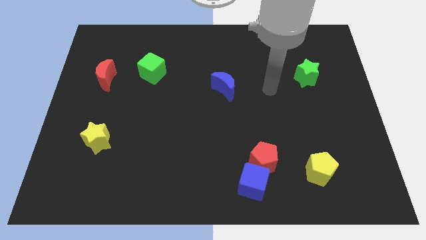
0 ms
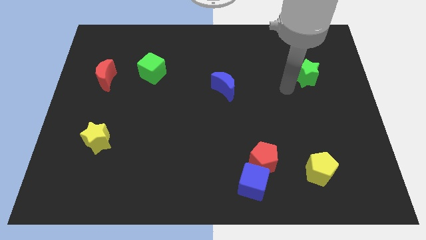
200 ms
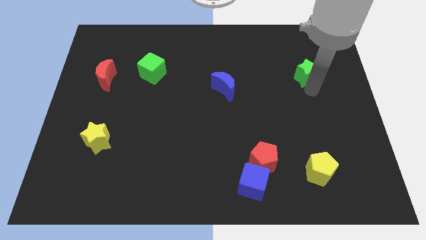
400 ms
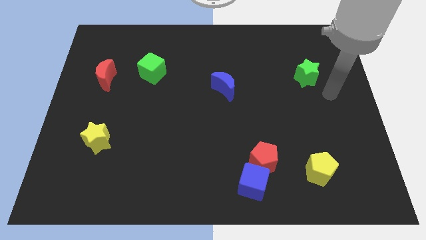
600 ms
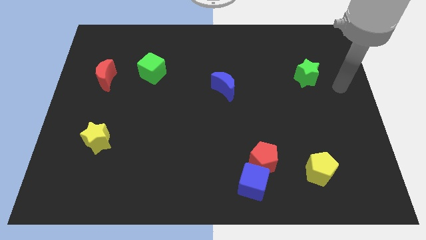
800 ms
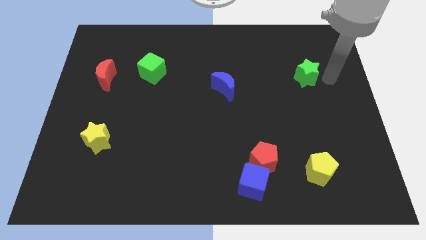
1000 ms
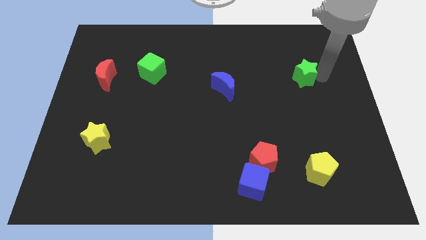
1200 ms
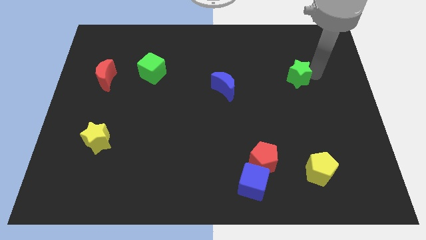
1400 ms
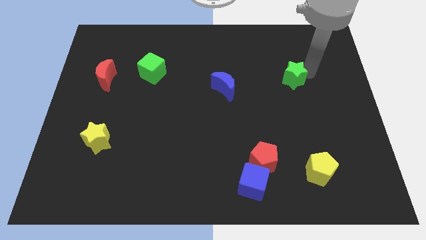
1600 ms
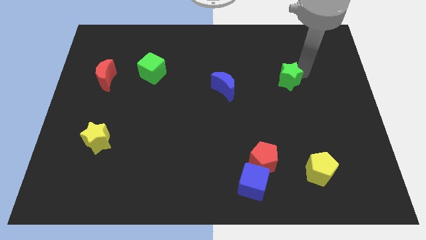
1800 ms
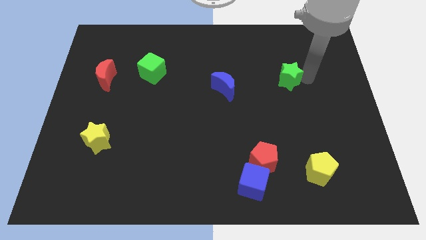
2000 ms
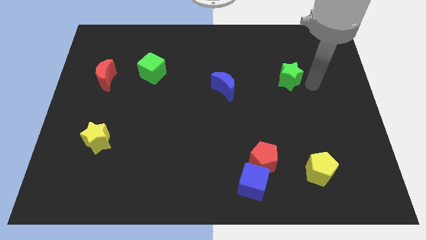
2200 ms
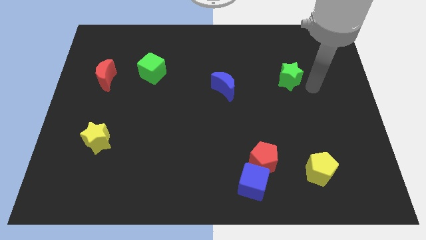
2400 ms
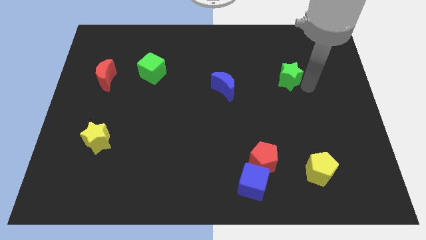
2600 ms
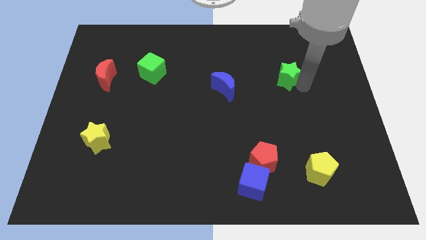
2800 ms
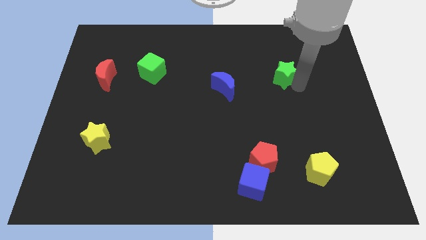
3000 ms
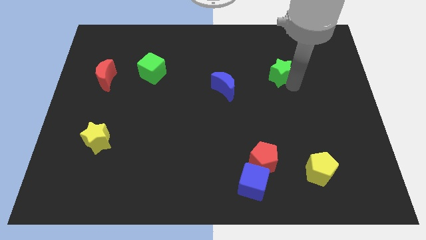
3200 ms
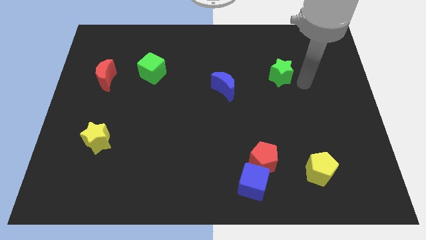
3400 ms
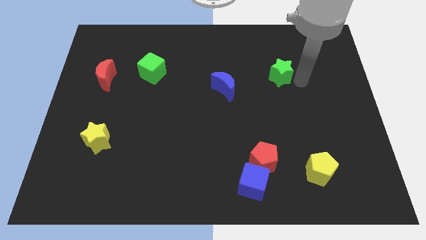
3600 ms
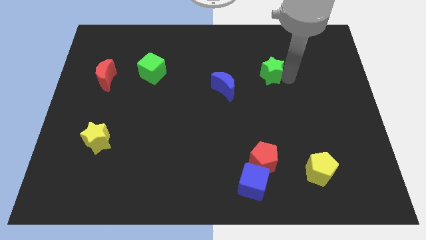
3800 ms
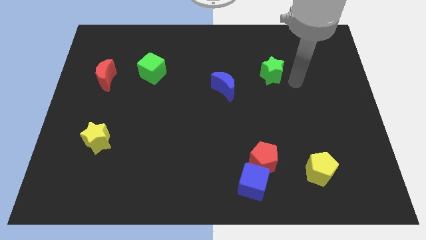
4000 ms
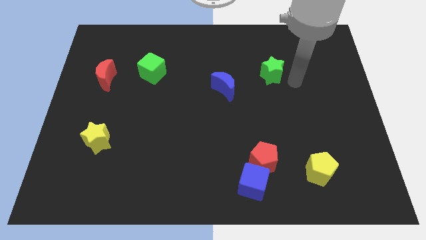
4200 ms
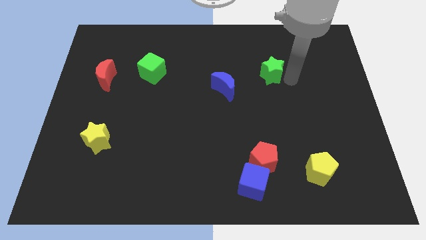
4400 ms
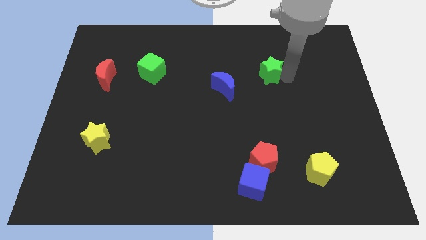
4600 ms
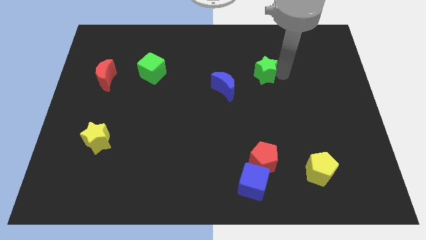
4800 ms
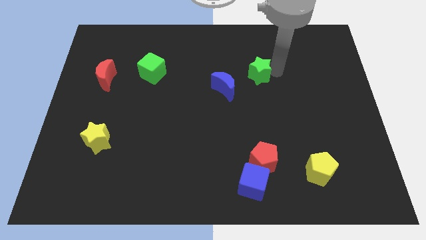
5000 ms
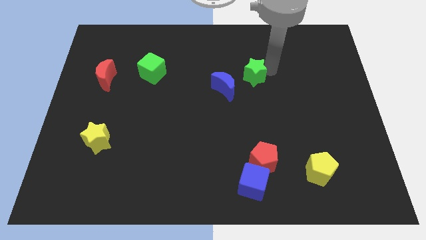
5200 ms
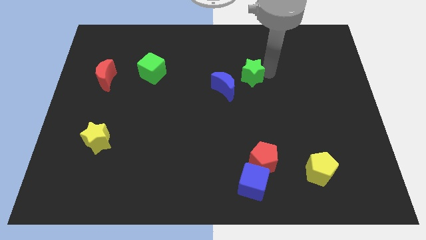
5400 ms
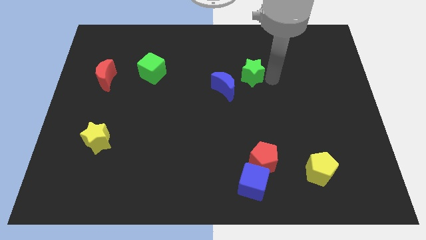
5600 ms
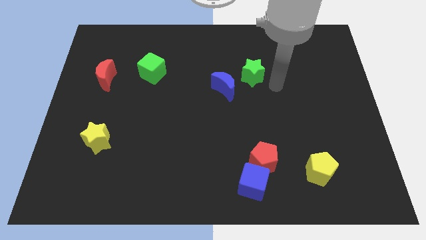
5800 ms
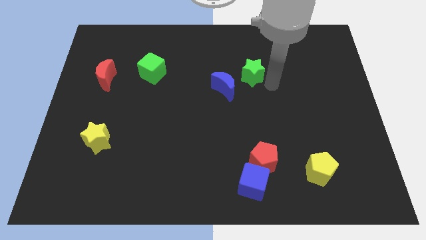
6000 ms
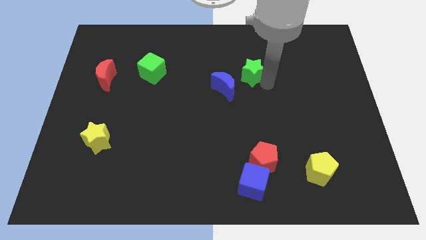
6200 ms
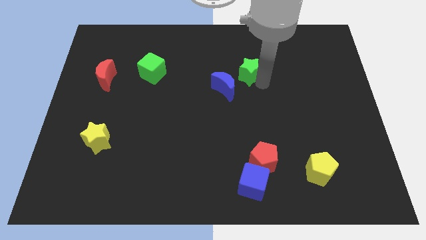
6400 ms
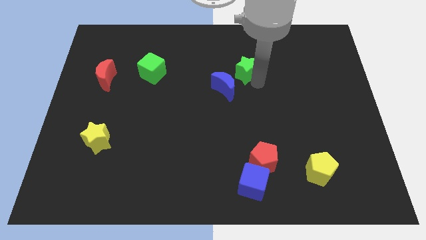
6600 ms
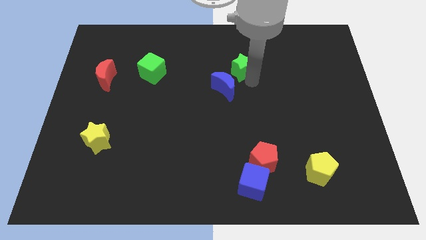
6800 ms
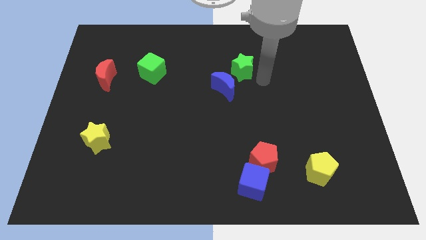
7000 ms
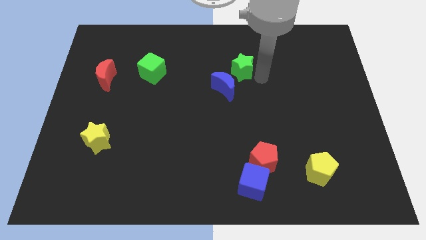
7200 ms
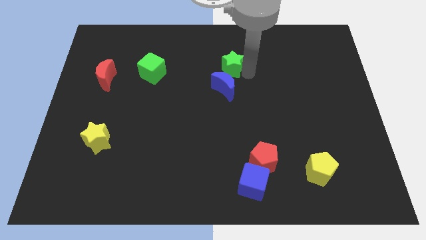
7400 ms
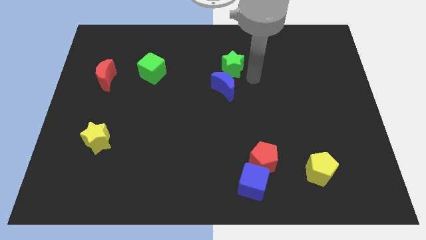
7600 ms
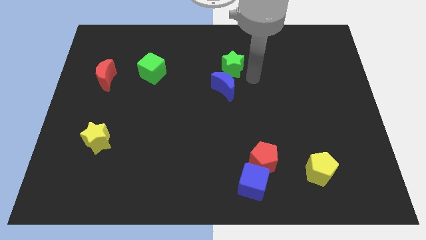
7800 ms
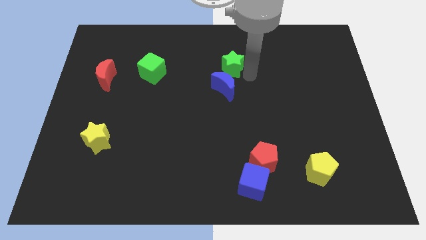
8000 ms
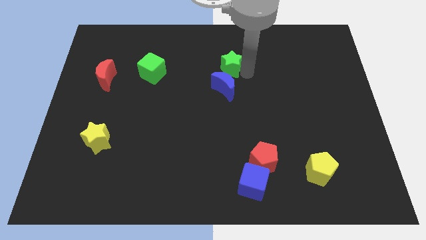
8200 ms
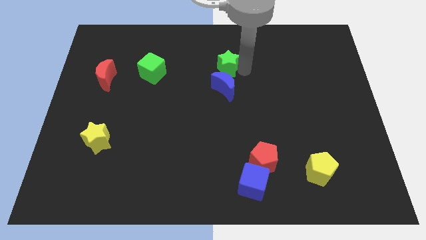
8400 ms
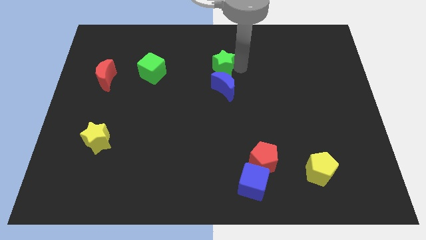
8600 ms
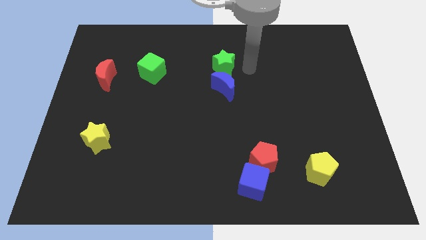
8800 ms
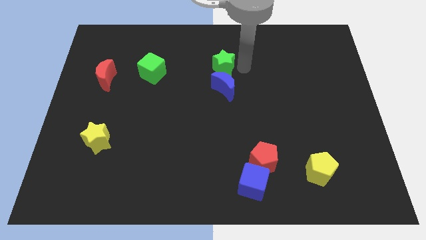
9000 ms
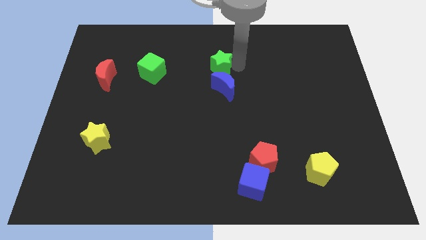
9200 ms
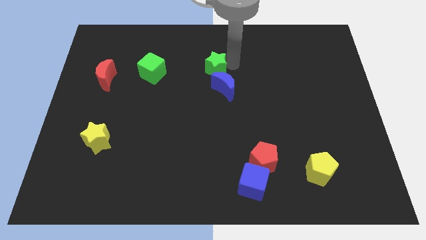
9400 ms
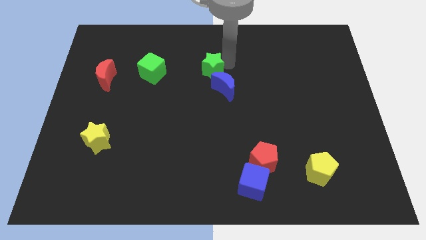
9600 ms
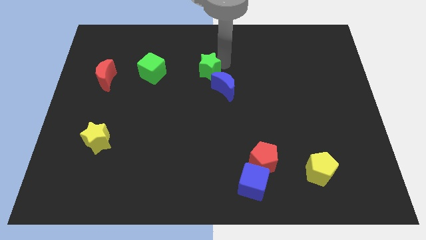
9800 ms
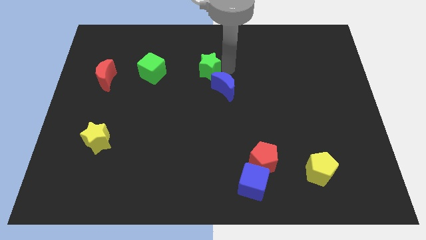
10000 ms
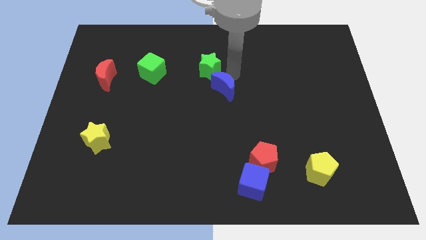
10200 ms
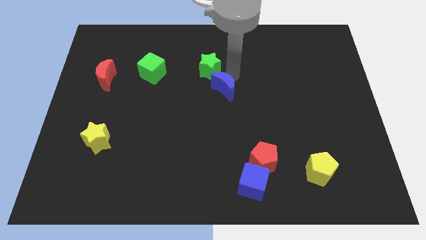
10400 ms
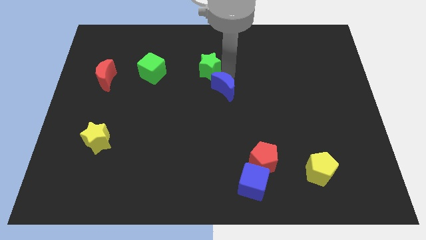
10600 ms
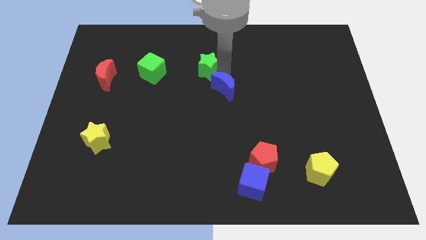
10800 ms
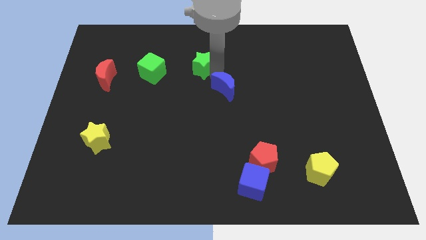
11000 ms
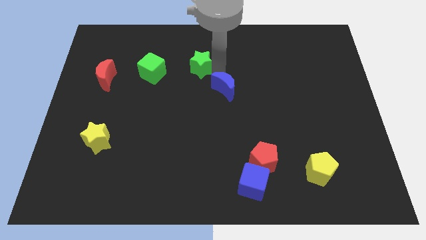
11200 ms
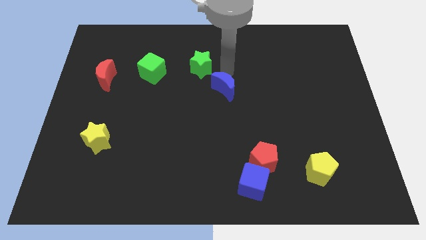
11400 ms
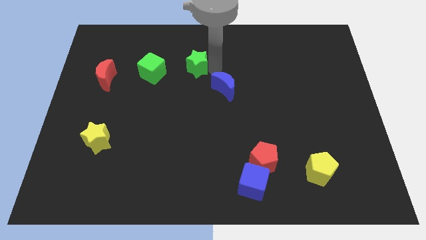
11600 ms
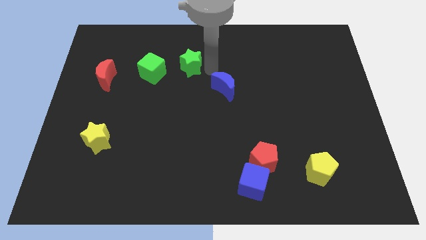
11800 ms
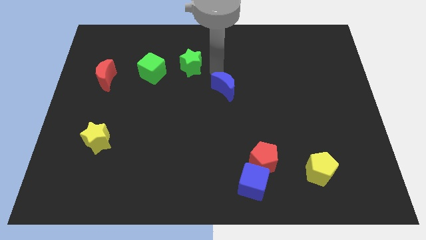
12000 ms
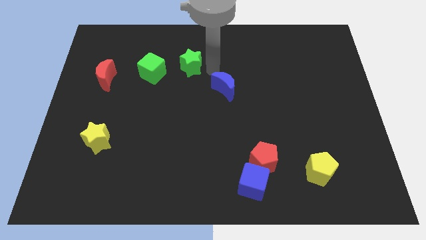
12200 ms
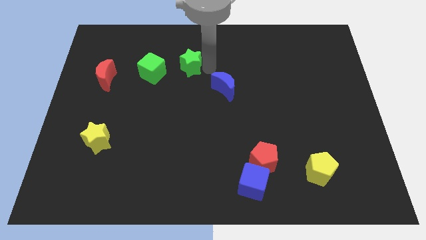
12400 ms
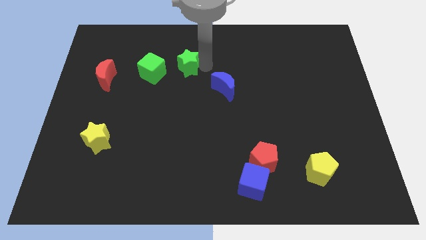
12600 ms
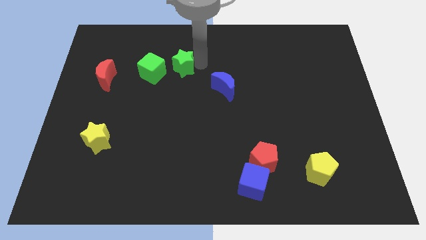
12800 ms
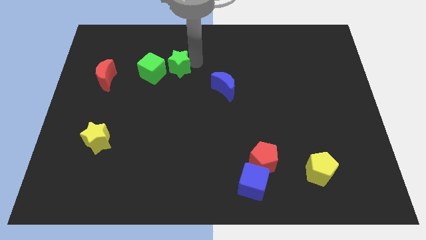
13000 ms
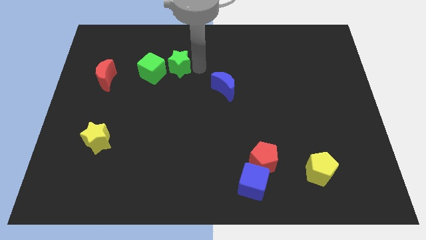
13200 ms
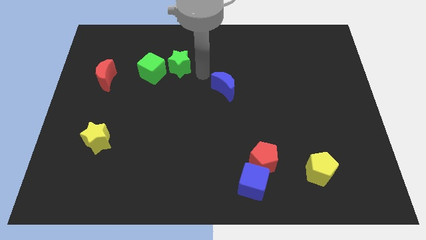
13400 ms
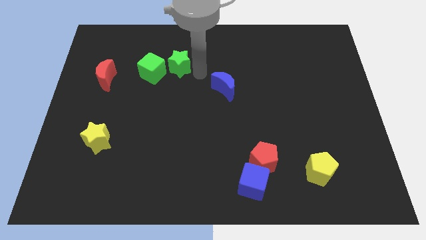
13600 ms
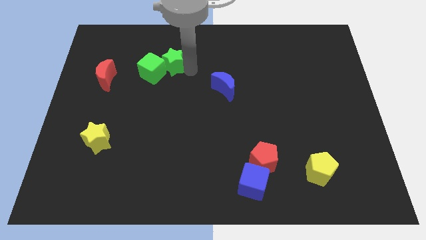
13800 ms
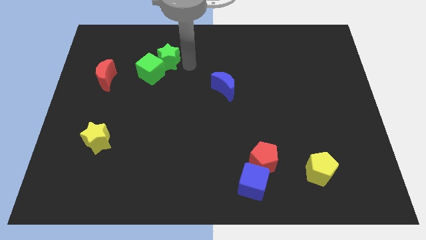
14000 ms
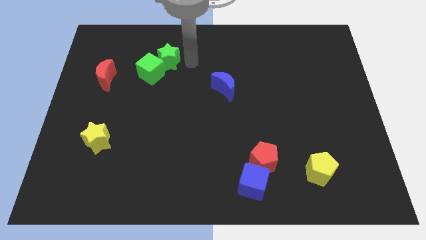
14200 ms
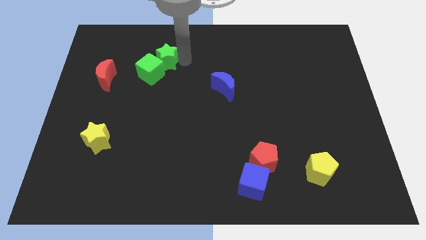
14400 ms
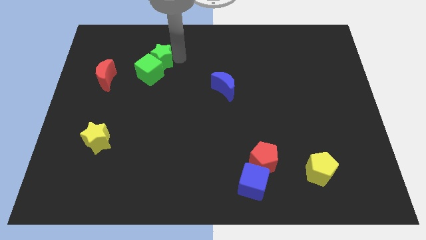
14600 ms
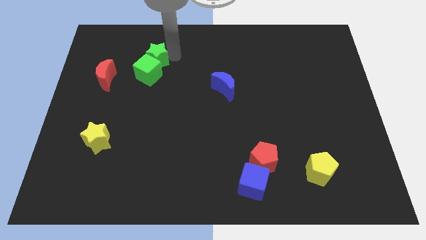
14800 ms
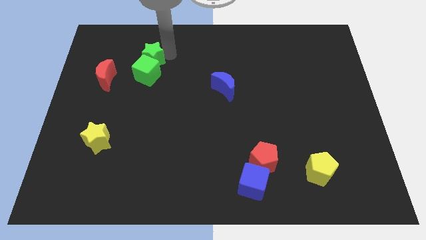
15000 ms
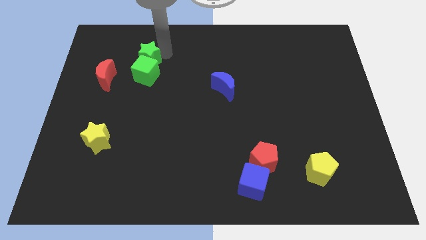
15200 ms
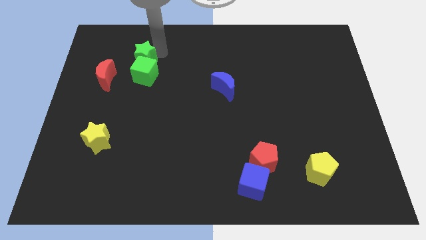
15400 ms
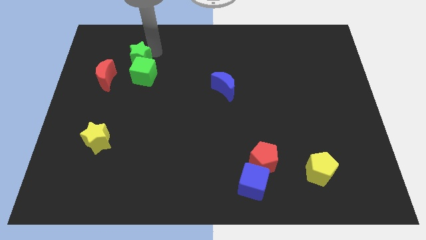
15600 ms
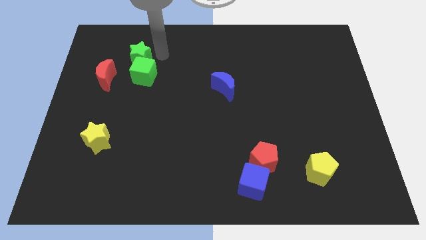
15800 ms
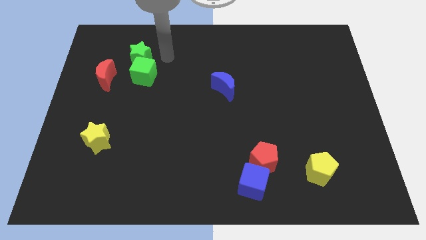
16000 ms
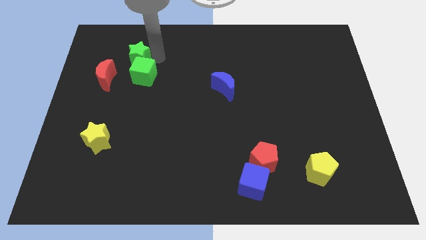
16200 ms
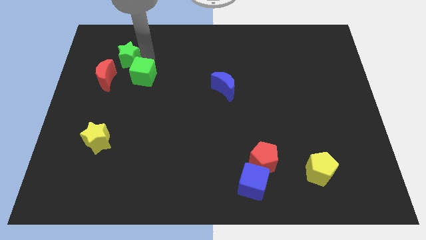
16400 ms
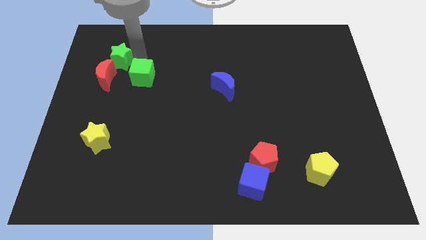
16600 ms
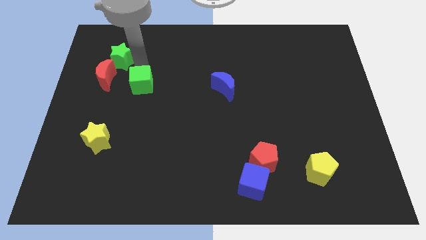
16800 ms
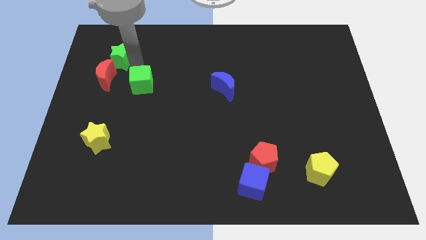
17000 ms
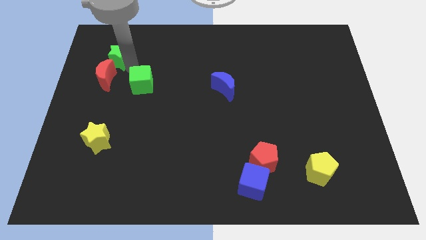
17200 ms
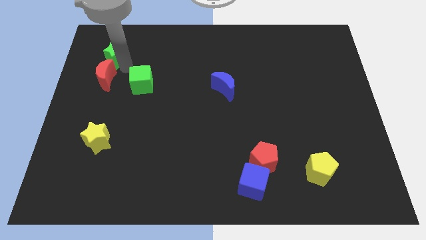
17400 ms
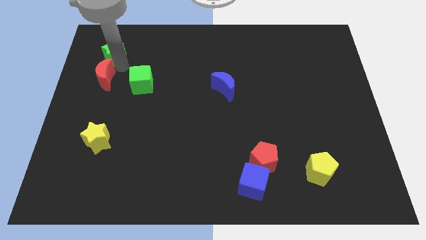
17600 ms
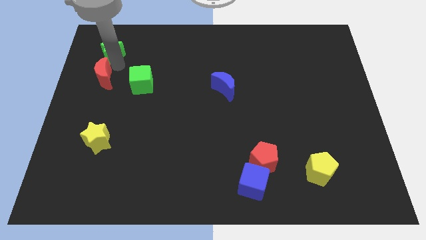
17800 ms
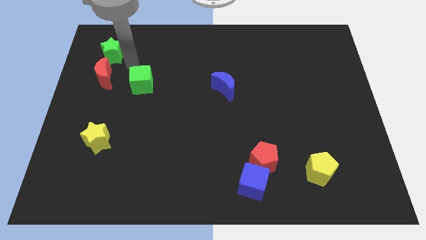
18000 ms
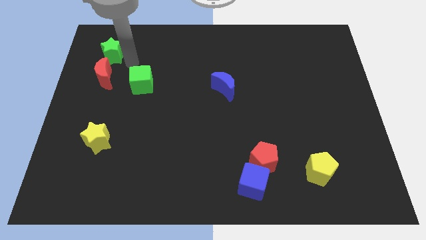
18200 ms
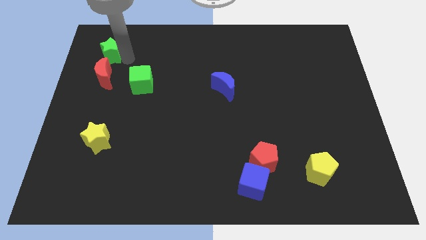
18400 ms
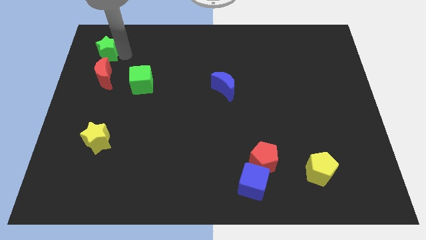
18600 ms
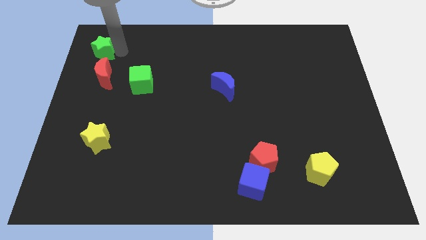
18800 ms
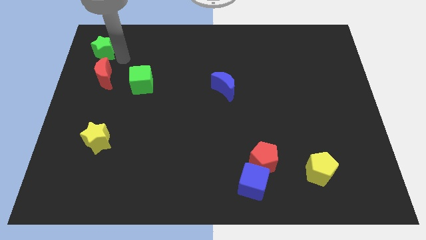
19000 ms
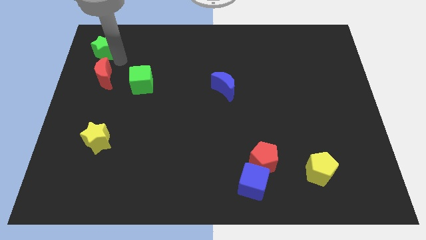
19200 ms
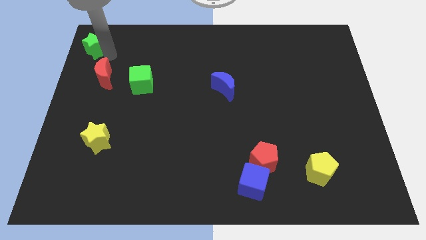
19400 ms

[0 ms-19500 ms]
slide the green star to the top left corner
